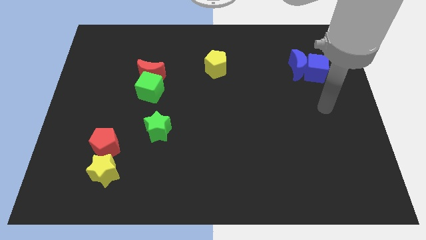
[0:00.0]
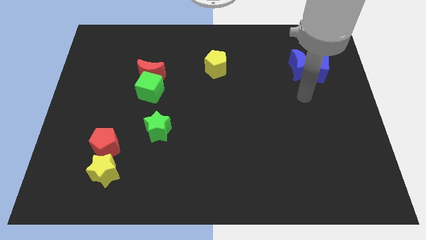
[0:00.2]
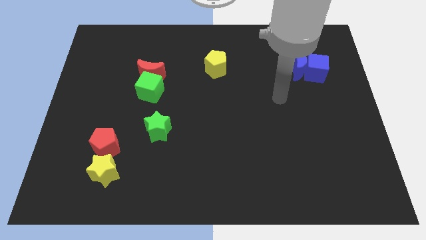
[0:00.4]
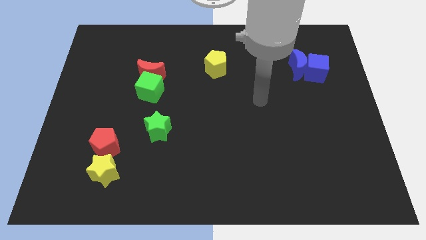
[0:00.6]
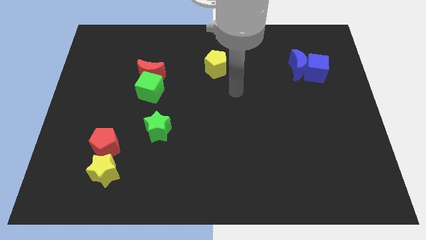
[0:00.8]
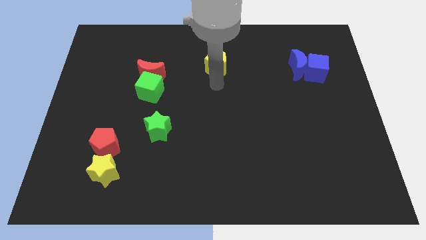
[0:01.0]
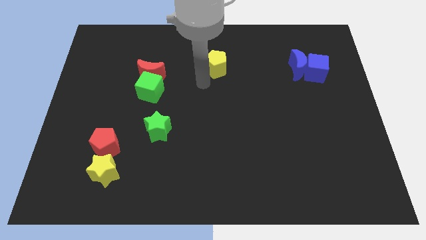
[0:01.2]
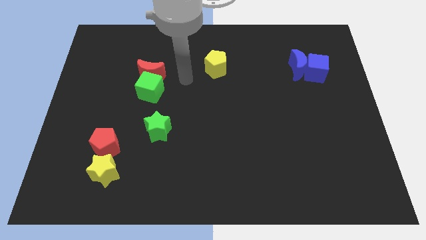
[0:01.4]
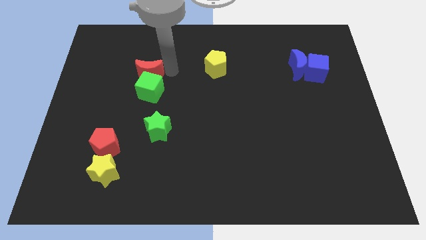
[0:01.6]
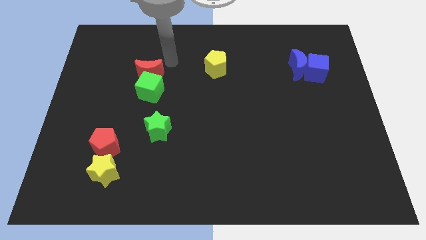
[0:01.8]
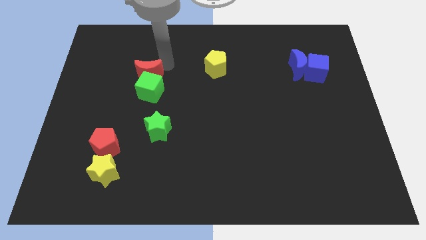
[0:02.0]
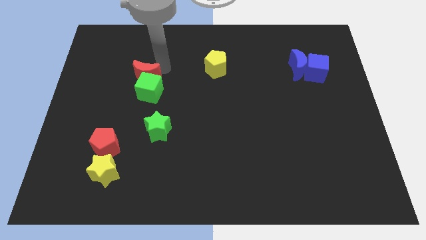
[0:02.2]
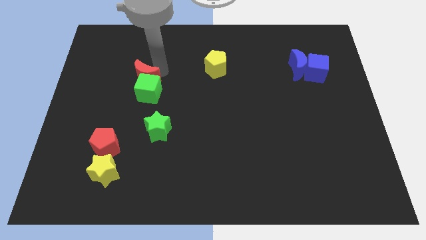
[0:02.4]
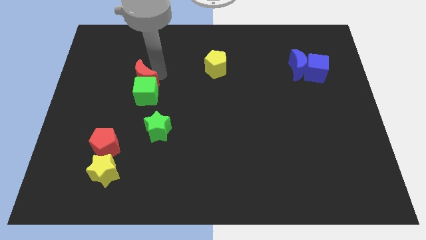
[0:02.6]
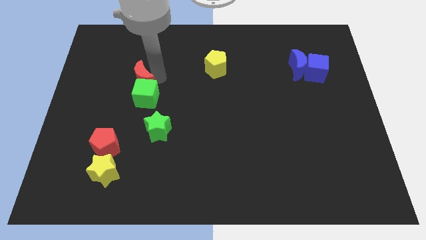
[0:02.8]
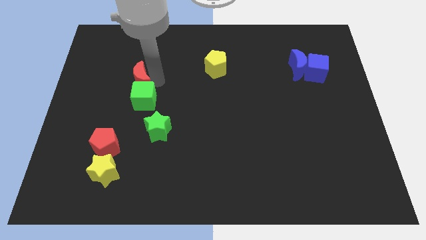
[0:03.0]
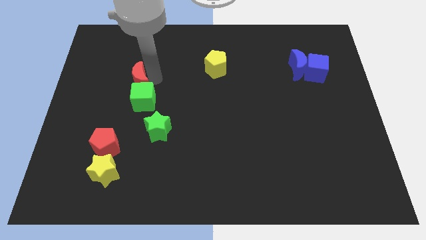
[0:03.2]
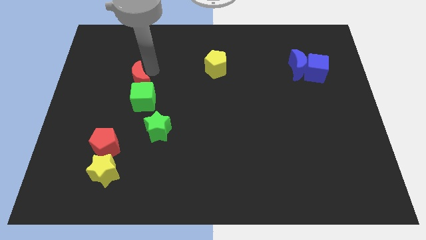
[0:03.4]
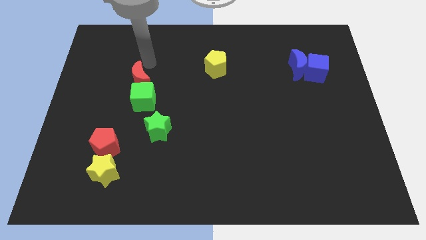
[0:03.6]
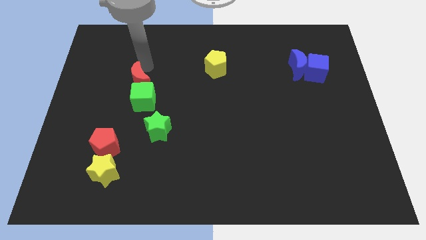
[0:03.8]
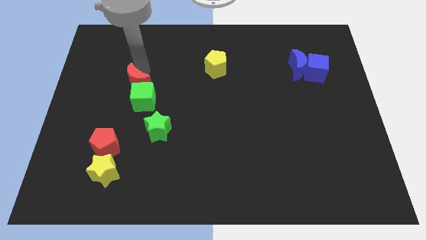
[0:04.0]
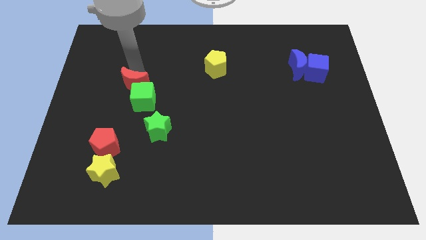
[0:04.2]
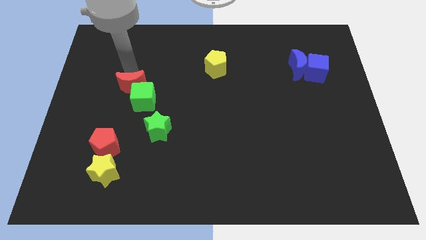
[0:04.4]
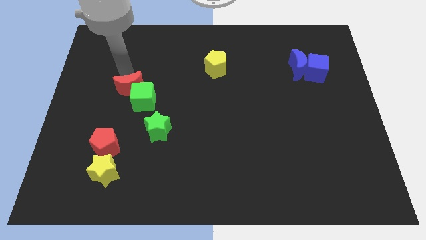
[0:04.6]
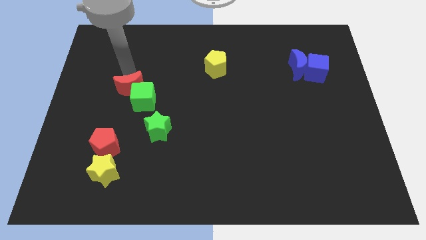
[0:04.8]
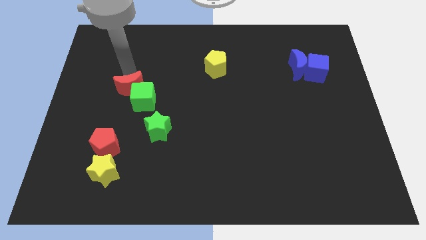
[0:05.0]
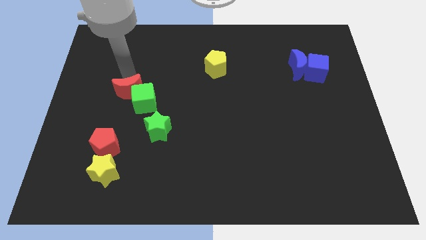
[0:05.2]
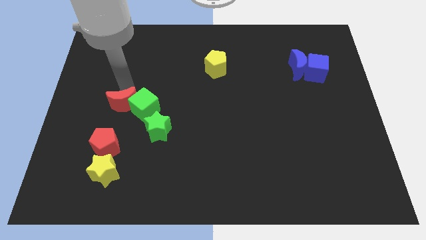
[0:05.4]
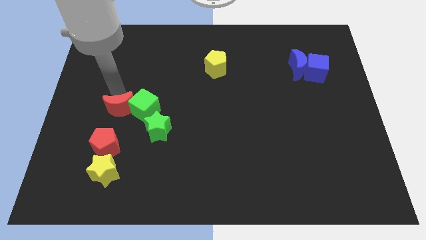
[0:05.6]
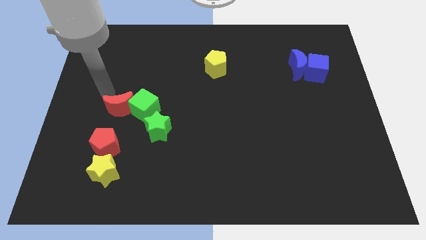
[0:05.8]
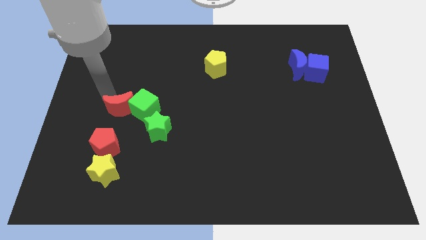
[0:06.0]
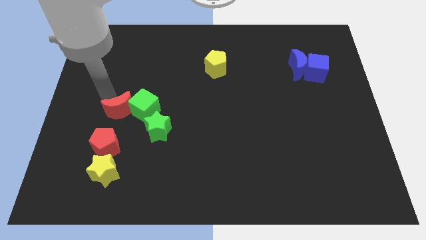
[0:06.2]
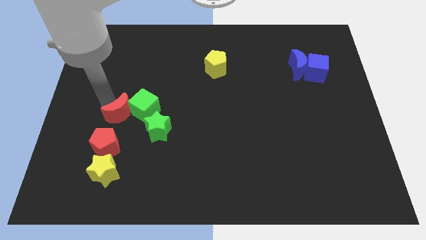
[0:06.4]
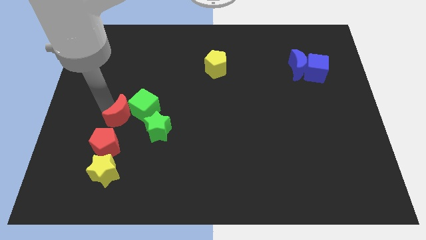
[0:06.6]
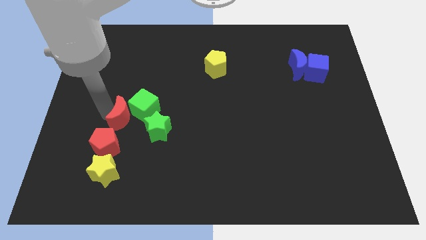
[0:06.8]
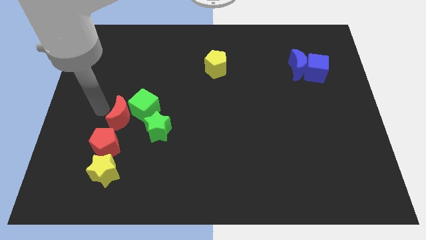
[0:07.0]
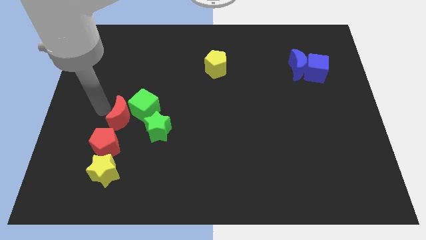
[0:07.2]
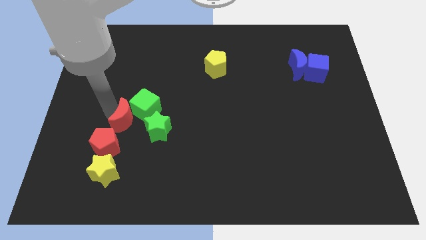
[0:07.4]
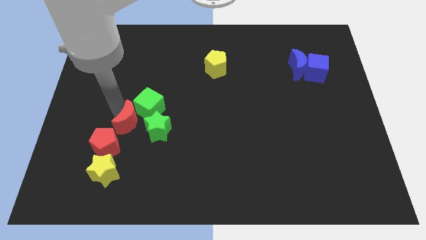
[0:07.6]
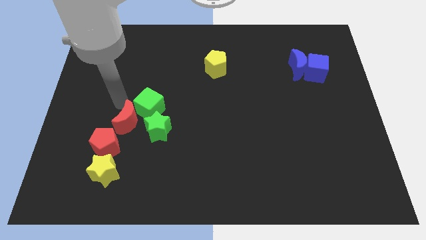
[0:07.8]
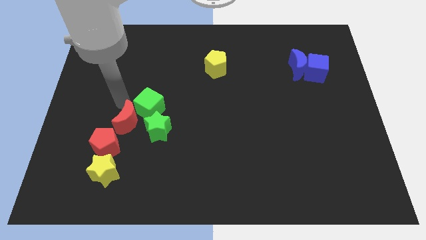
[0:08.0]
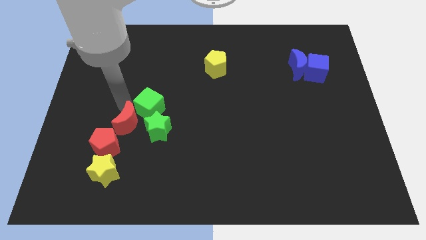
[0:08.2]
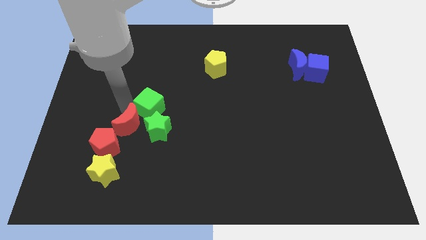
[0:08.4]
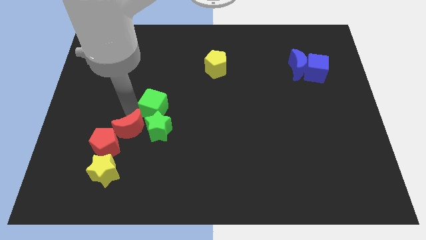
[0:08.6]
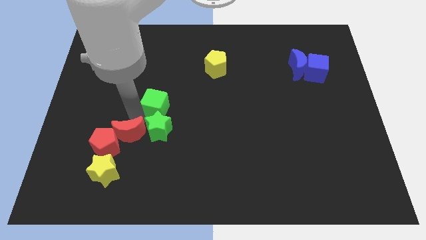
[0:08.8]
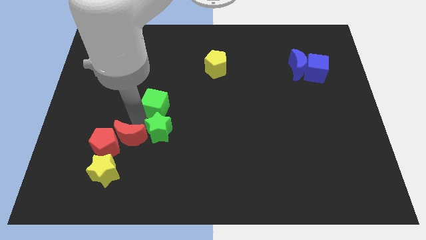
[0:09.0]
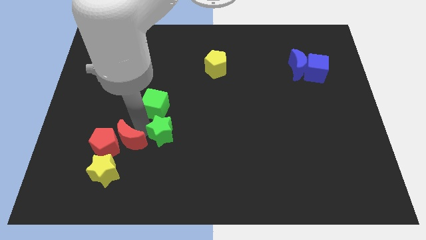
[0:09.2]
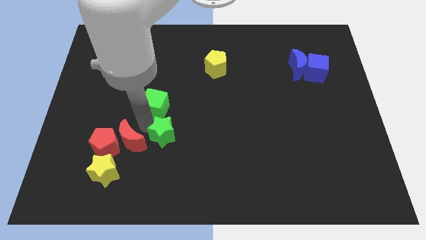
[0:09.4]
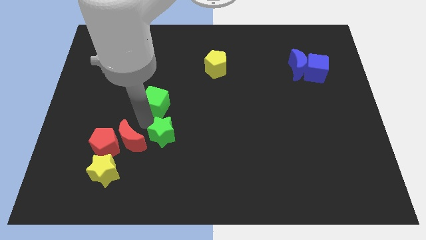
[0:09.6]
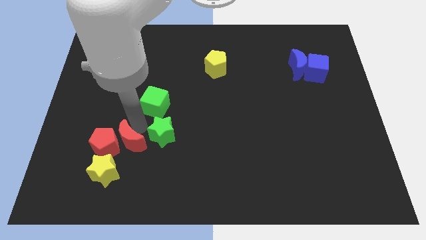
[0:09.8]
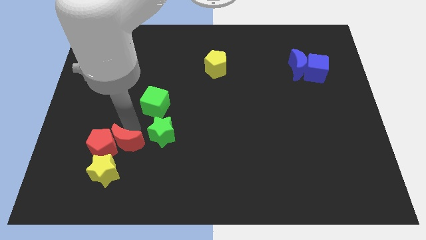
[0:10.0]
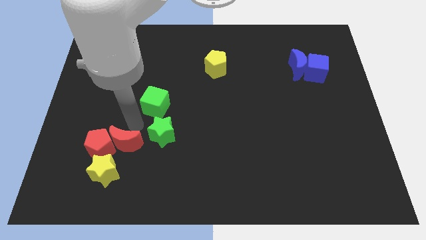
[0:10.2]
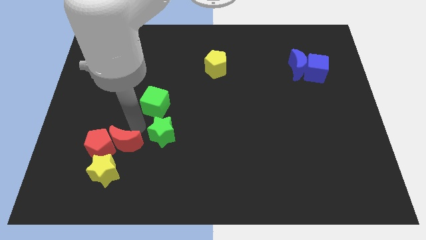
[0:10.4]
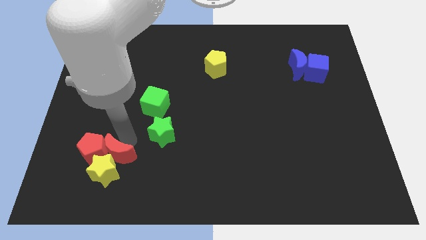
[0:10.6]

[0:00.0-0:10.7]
push the red moon to the yellow star

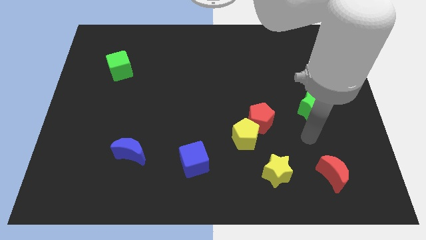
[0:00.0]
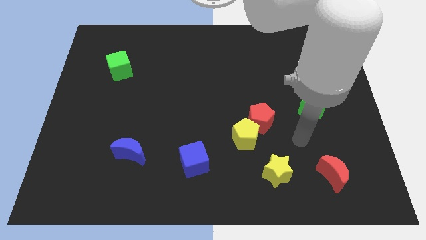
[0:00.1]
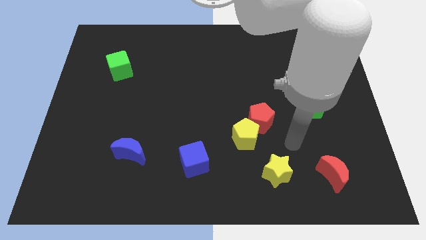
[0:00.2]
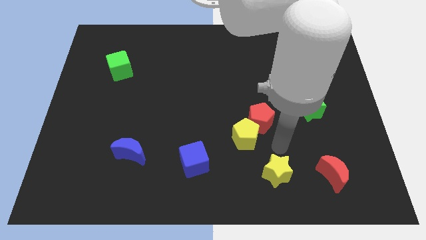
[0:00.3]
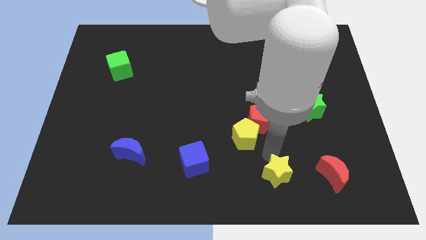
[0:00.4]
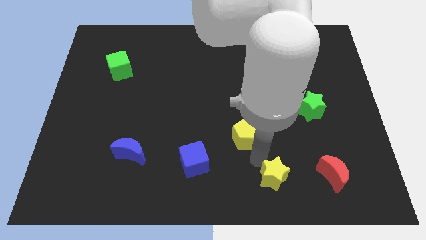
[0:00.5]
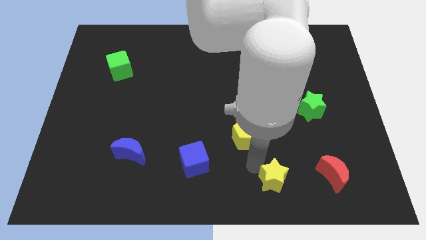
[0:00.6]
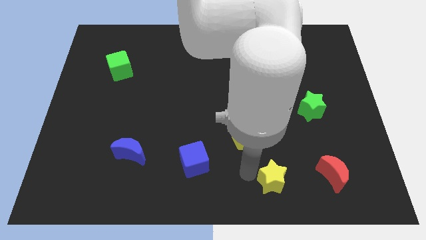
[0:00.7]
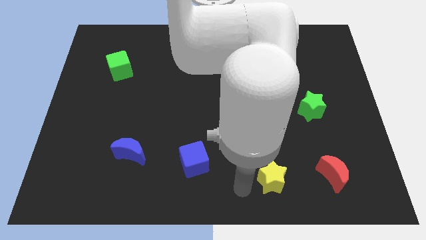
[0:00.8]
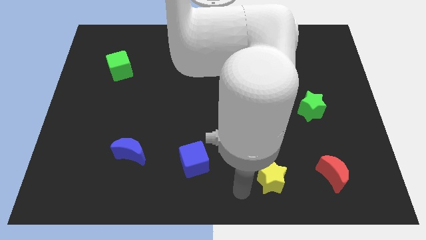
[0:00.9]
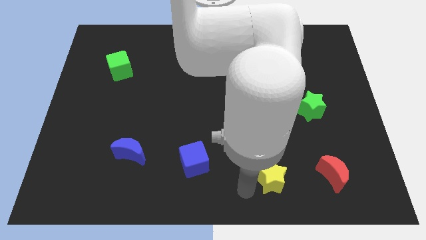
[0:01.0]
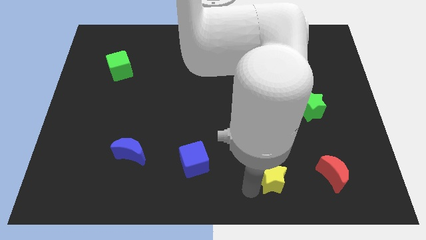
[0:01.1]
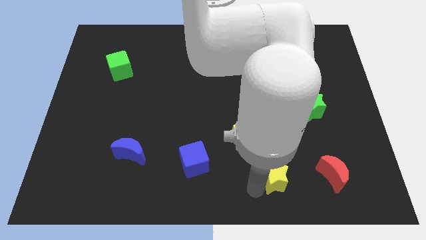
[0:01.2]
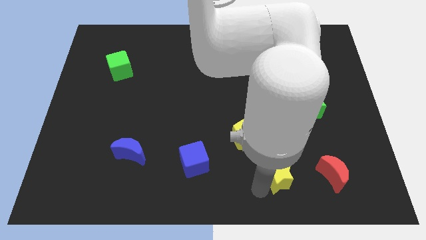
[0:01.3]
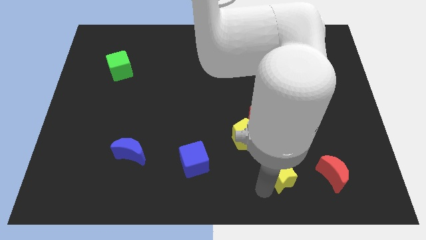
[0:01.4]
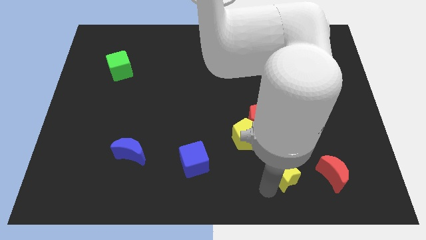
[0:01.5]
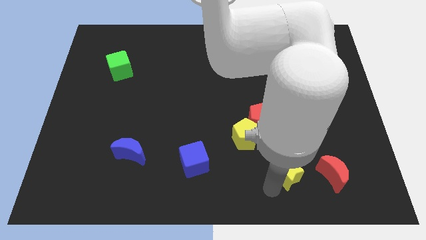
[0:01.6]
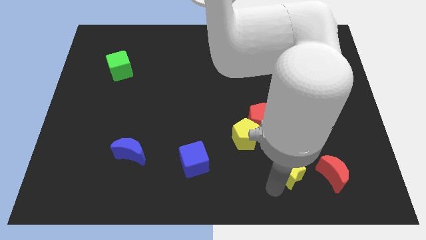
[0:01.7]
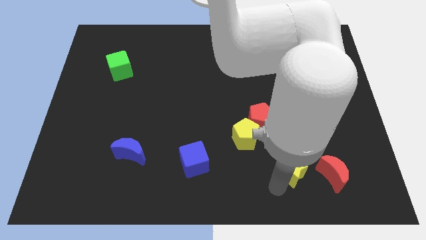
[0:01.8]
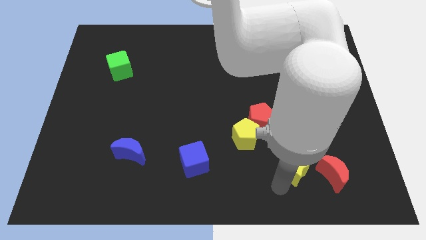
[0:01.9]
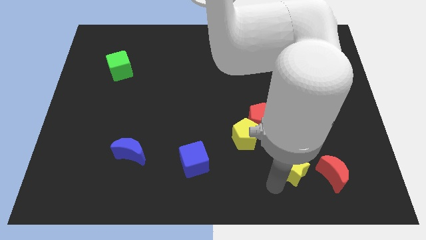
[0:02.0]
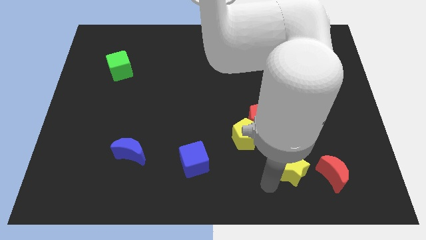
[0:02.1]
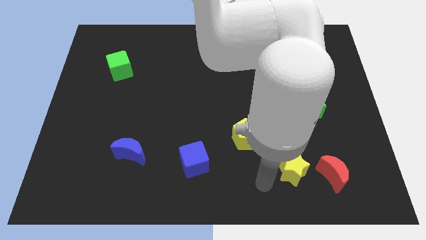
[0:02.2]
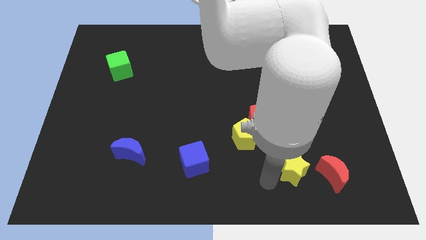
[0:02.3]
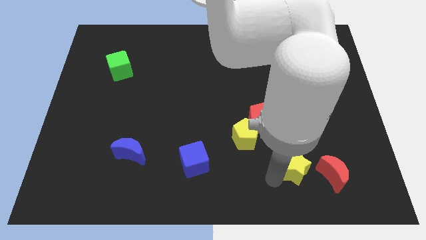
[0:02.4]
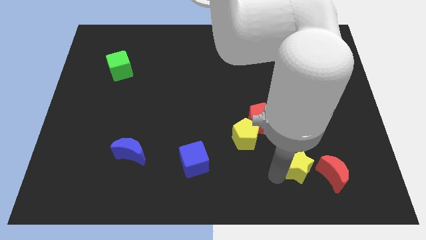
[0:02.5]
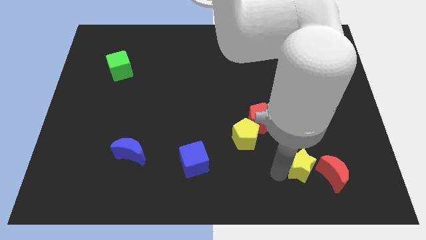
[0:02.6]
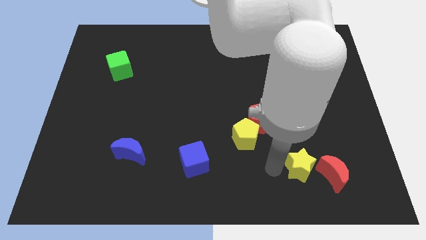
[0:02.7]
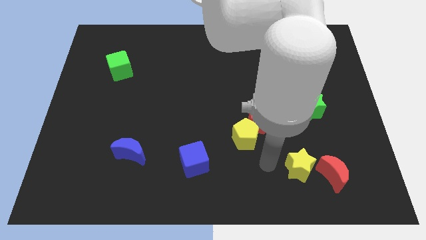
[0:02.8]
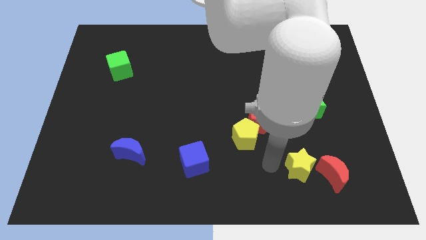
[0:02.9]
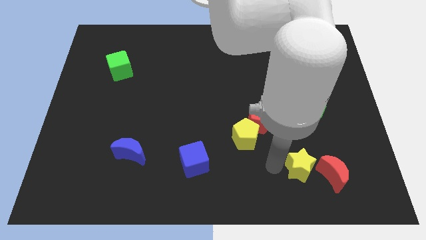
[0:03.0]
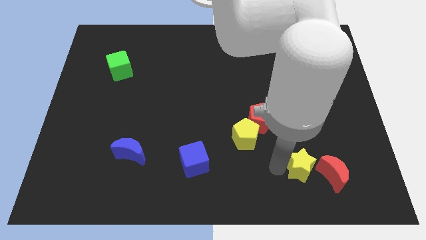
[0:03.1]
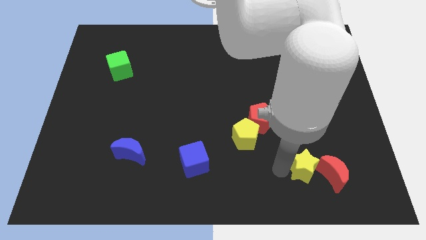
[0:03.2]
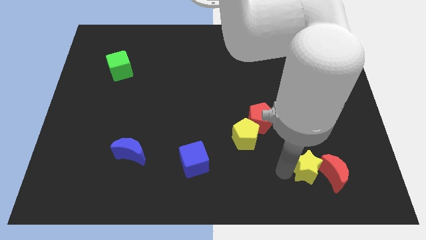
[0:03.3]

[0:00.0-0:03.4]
slide the yellow star to the red moon
